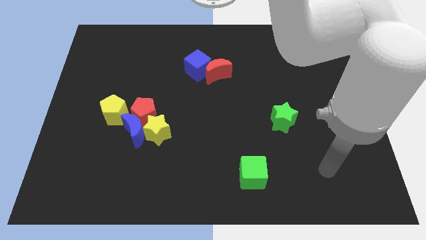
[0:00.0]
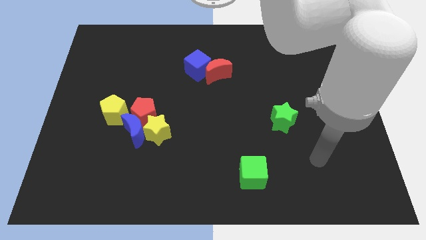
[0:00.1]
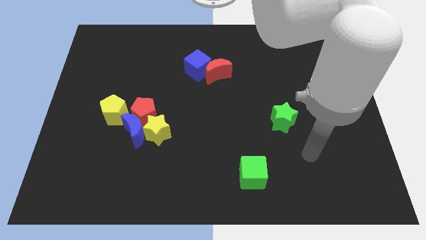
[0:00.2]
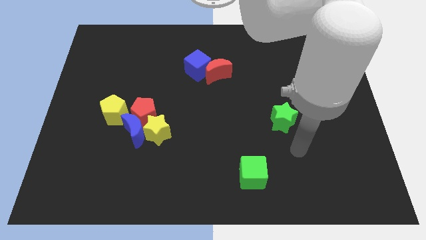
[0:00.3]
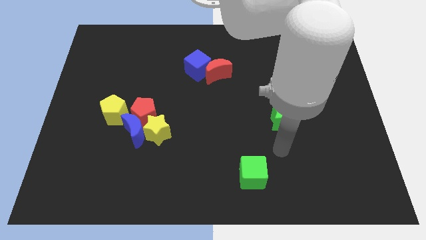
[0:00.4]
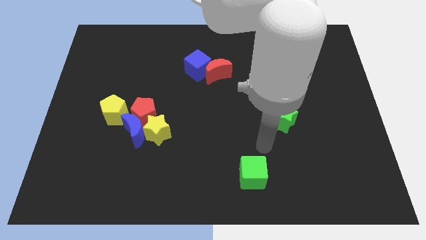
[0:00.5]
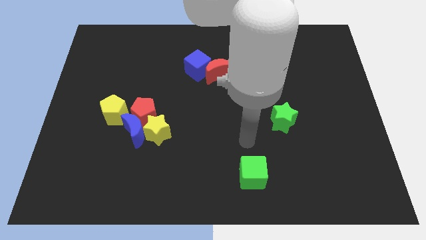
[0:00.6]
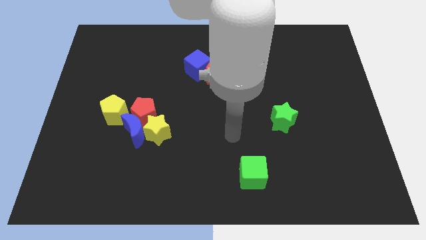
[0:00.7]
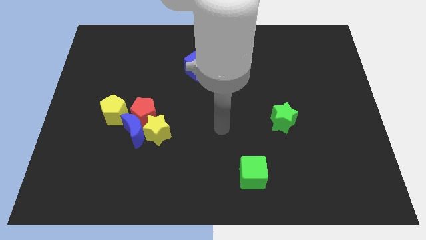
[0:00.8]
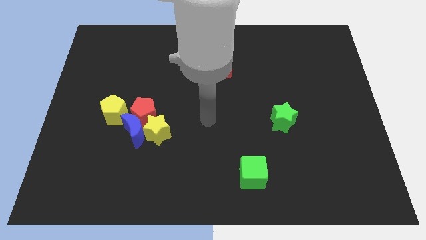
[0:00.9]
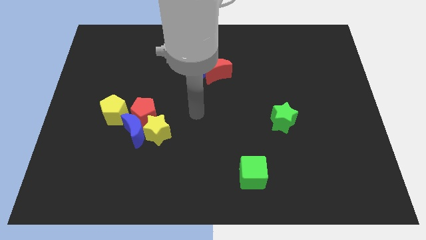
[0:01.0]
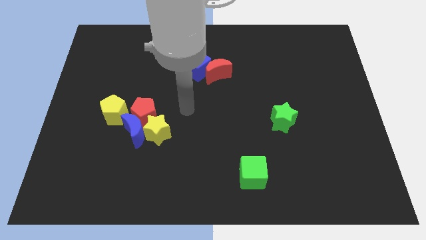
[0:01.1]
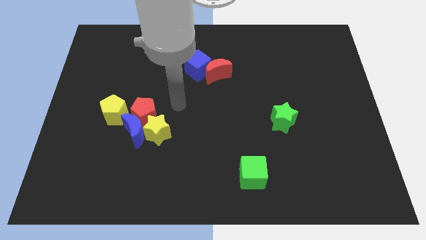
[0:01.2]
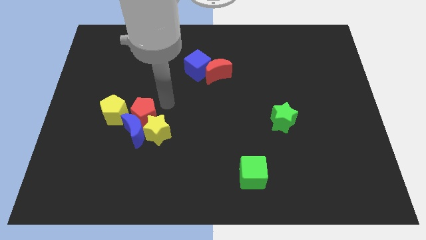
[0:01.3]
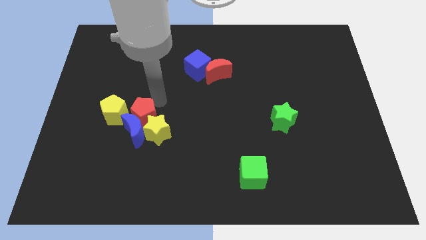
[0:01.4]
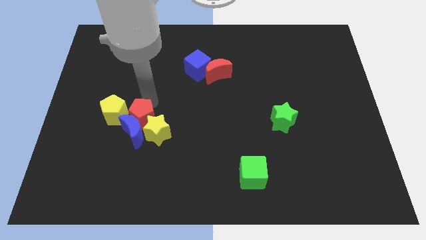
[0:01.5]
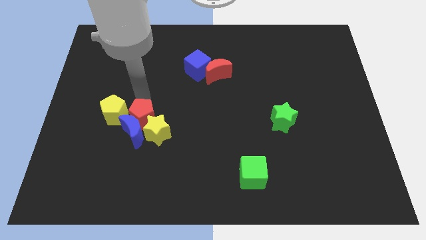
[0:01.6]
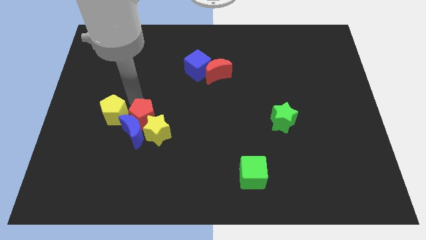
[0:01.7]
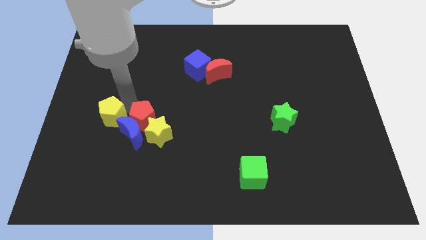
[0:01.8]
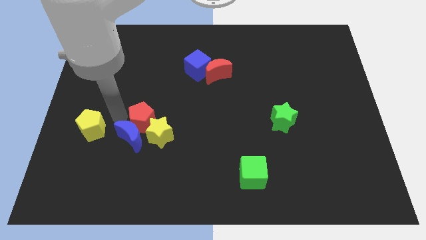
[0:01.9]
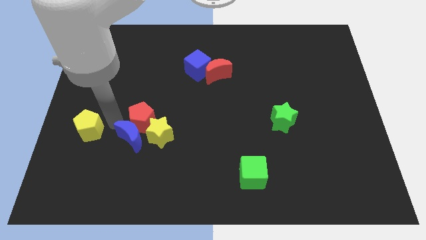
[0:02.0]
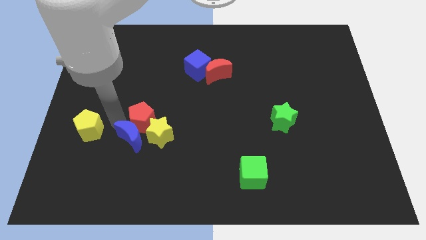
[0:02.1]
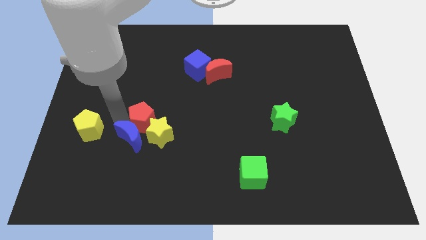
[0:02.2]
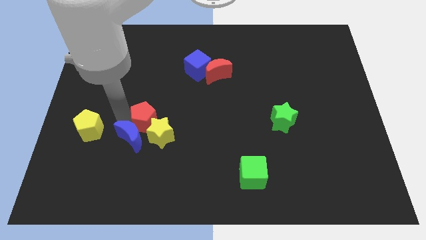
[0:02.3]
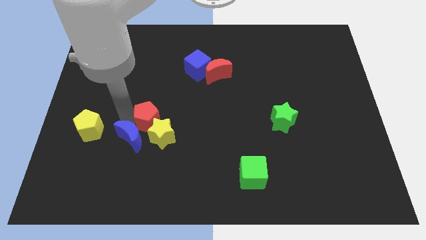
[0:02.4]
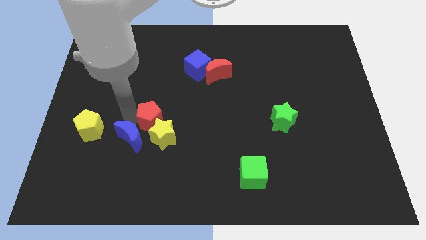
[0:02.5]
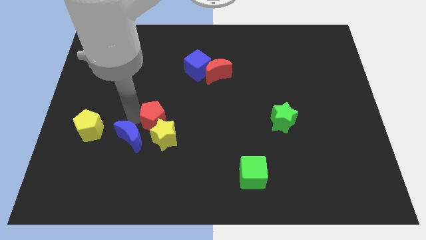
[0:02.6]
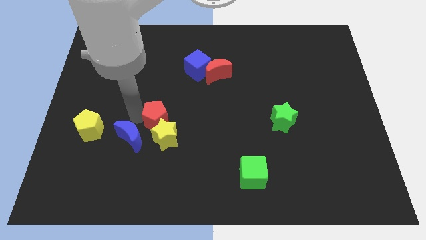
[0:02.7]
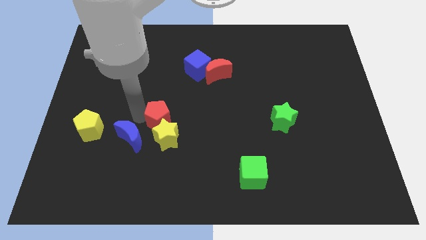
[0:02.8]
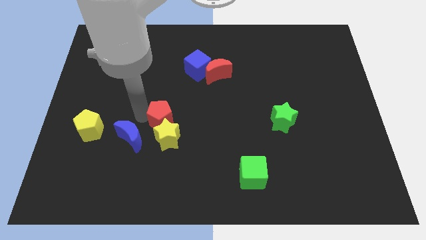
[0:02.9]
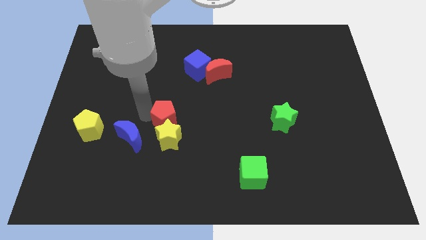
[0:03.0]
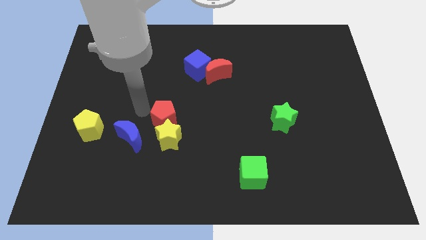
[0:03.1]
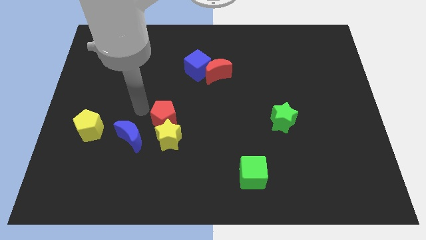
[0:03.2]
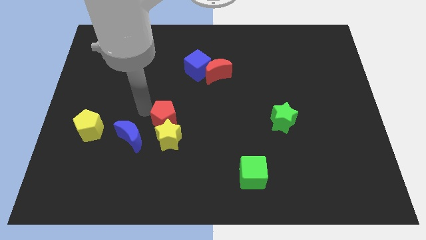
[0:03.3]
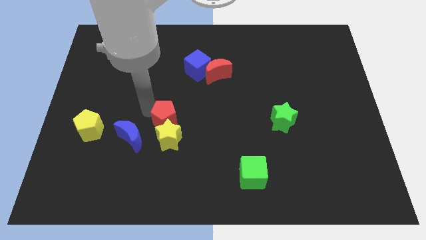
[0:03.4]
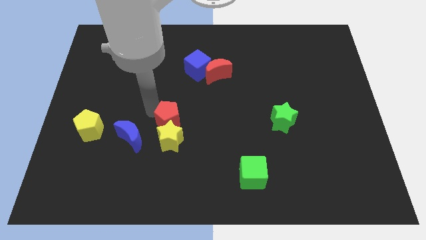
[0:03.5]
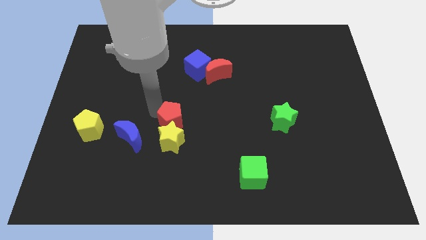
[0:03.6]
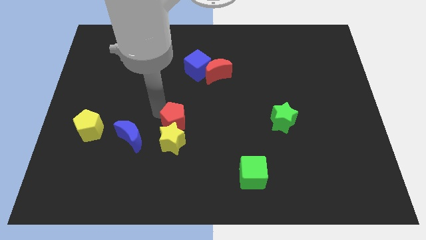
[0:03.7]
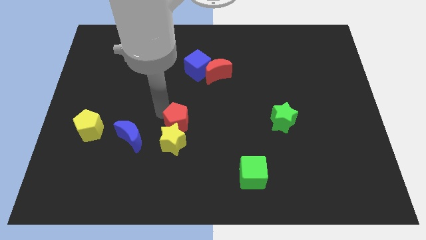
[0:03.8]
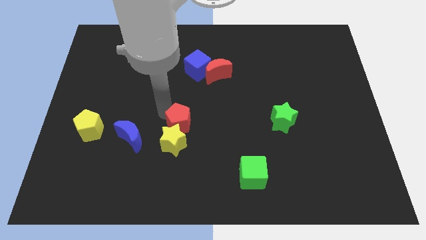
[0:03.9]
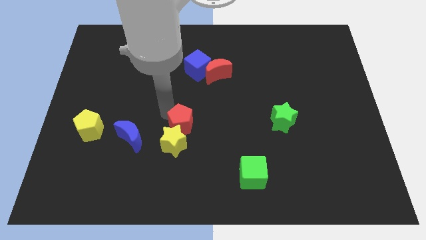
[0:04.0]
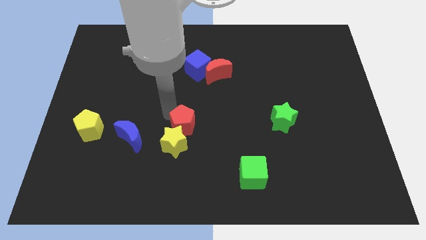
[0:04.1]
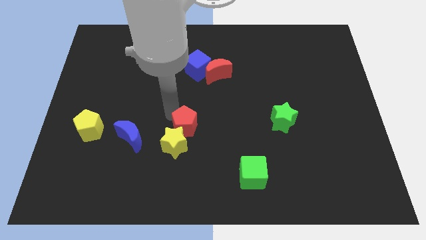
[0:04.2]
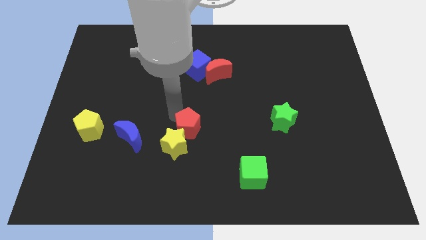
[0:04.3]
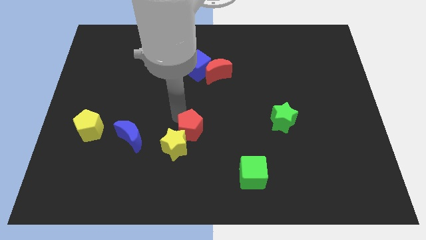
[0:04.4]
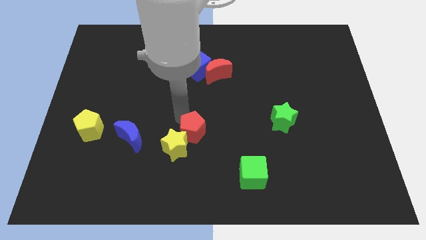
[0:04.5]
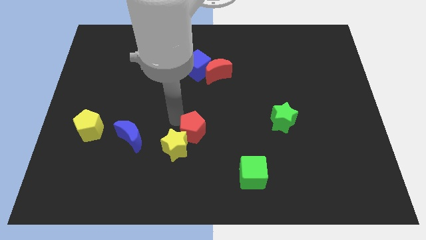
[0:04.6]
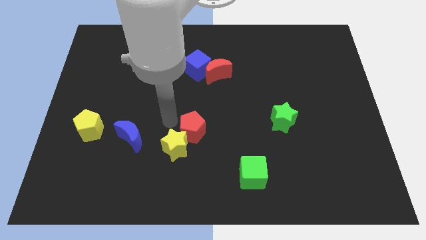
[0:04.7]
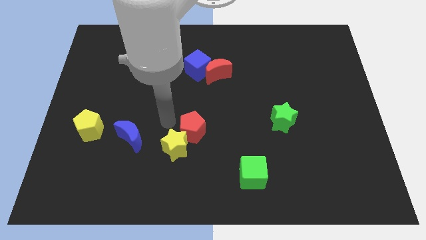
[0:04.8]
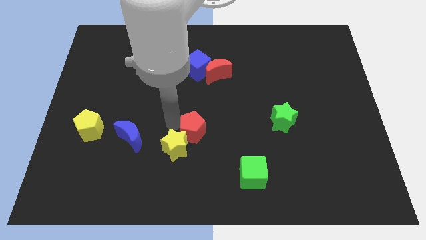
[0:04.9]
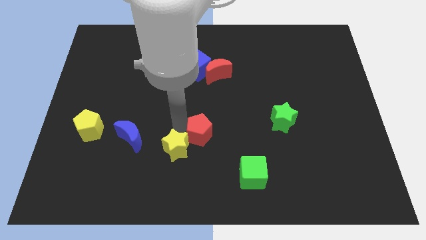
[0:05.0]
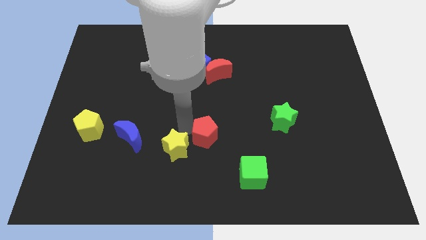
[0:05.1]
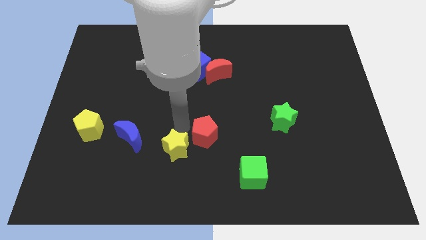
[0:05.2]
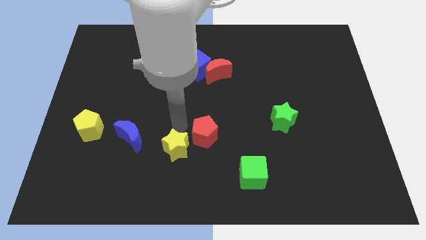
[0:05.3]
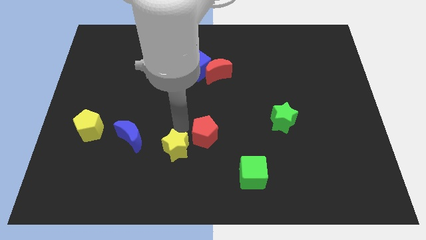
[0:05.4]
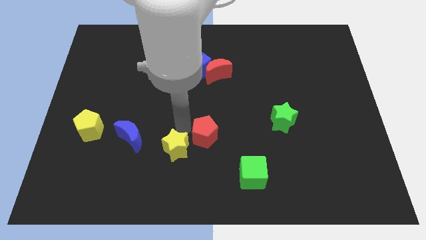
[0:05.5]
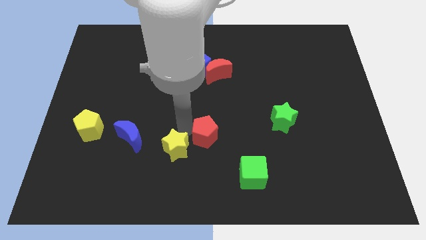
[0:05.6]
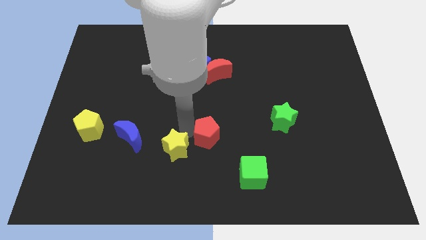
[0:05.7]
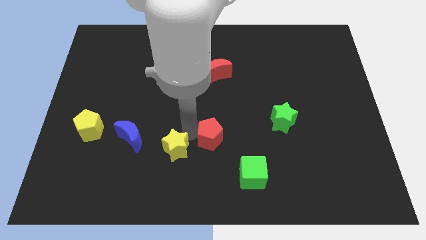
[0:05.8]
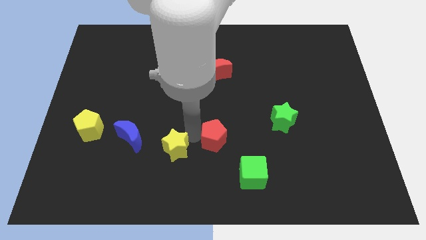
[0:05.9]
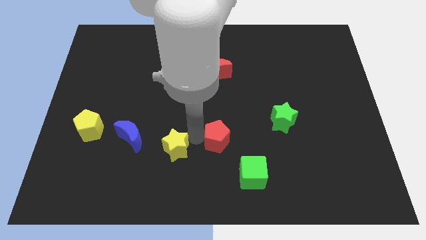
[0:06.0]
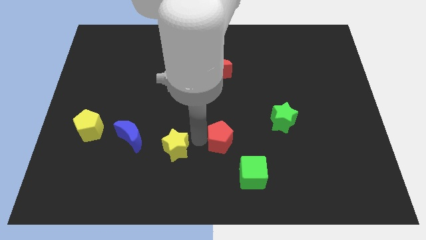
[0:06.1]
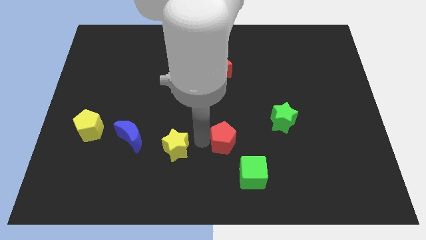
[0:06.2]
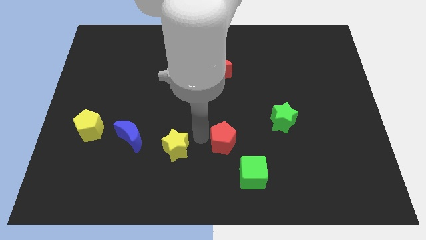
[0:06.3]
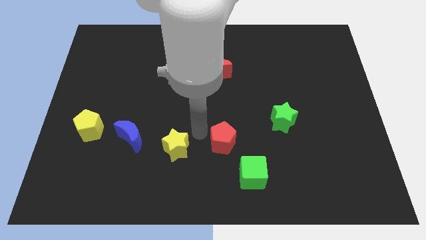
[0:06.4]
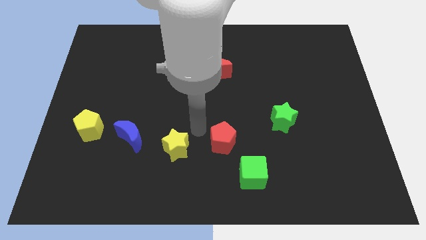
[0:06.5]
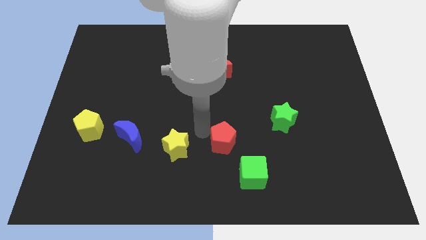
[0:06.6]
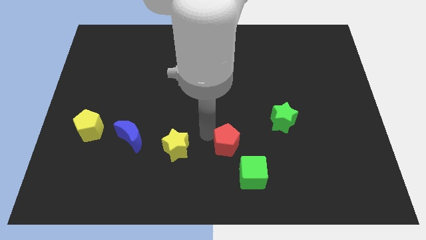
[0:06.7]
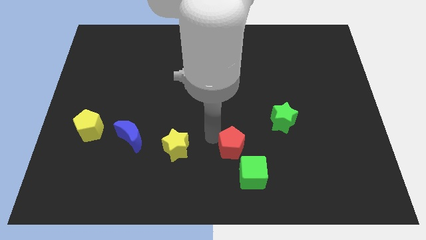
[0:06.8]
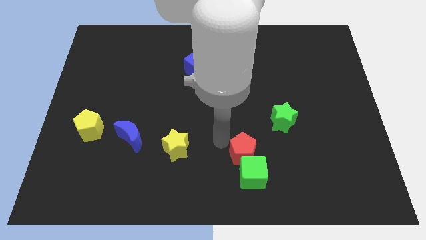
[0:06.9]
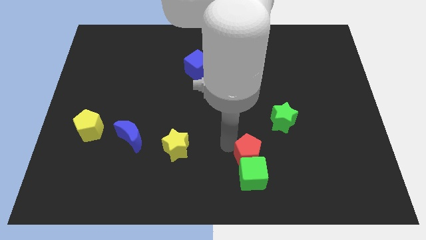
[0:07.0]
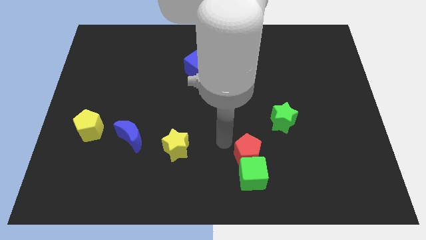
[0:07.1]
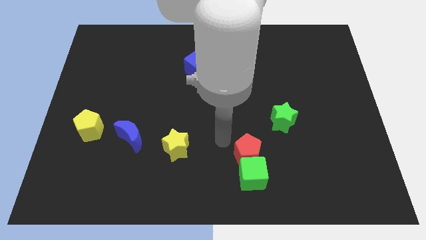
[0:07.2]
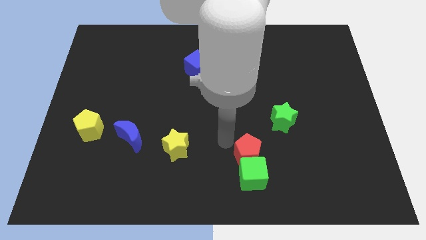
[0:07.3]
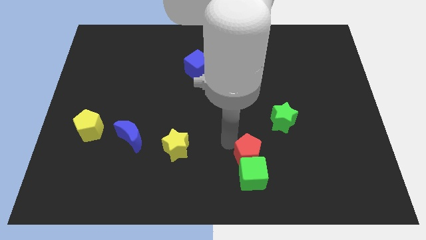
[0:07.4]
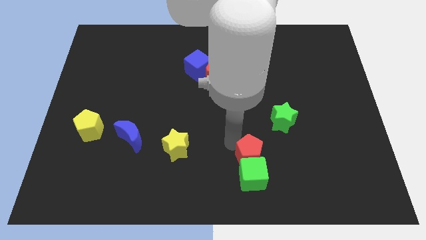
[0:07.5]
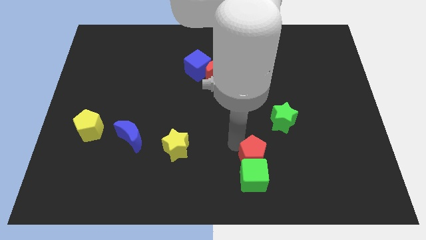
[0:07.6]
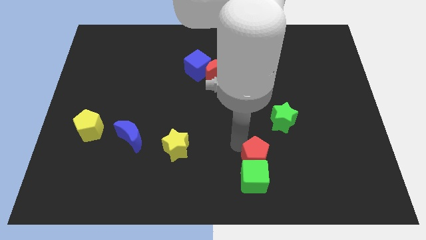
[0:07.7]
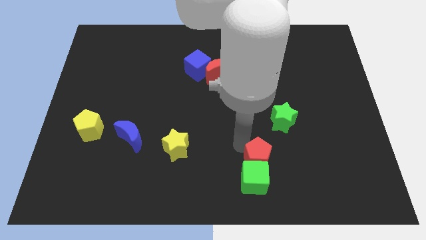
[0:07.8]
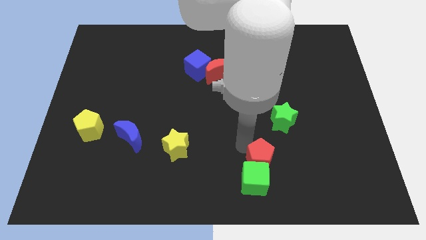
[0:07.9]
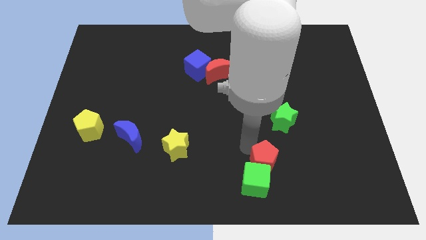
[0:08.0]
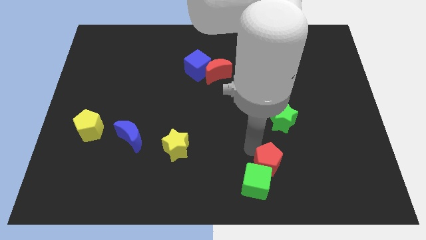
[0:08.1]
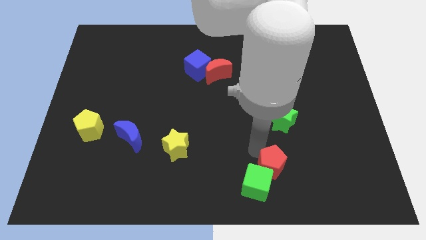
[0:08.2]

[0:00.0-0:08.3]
slide the red pentagon just right of the green cube
